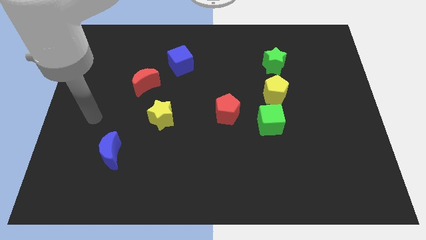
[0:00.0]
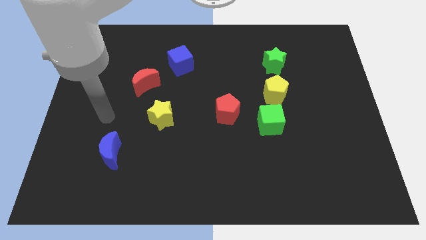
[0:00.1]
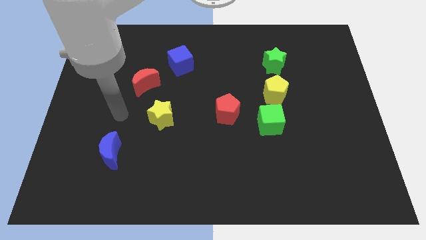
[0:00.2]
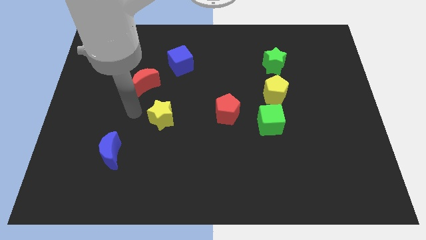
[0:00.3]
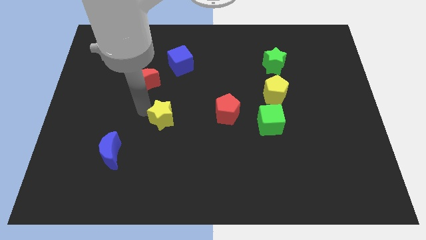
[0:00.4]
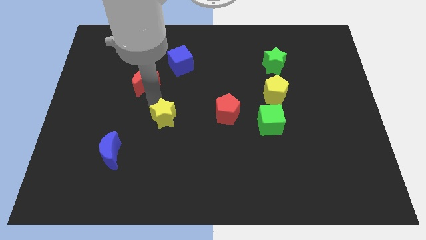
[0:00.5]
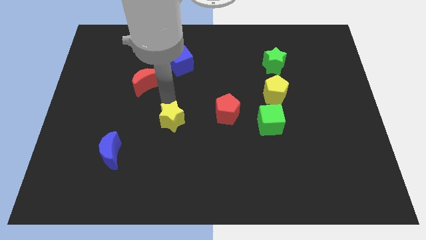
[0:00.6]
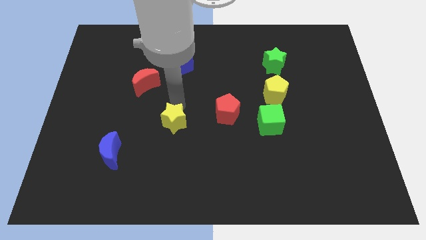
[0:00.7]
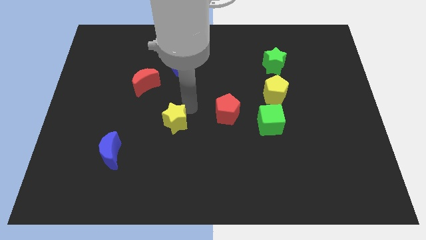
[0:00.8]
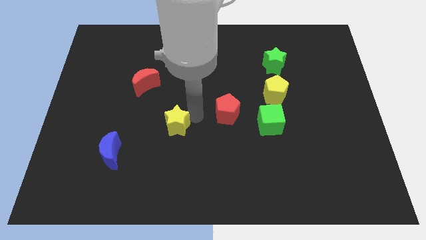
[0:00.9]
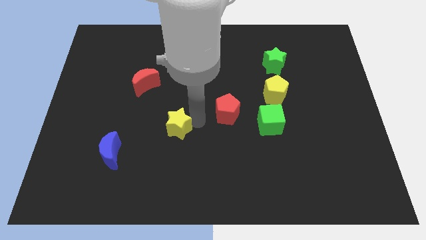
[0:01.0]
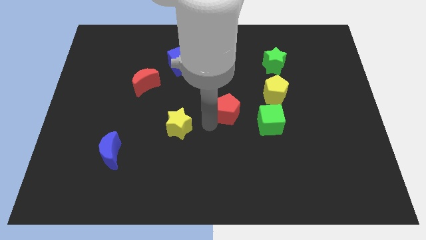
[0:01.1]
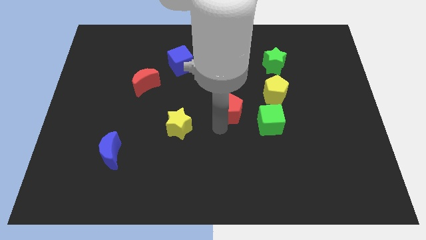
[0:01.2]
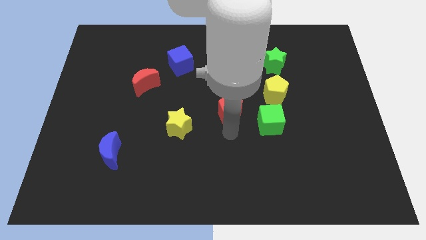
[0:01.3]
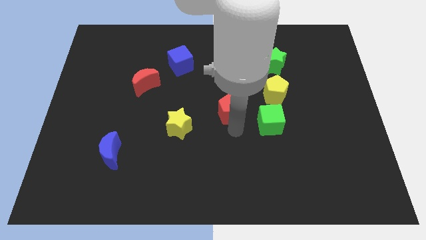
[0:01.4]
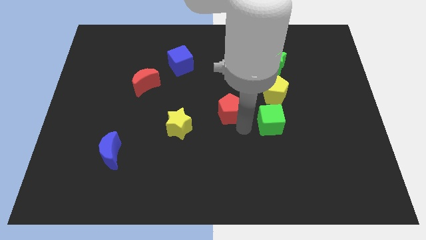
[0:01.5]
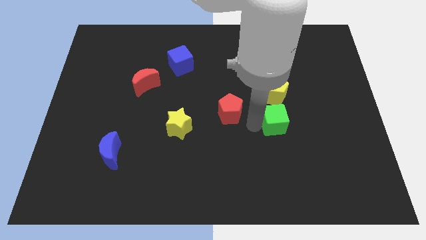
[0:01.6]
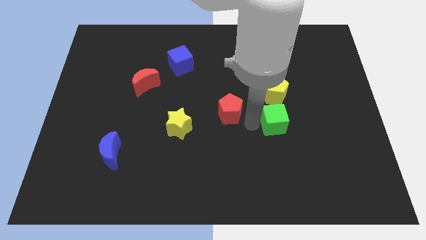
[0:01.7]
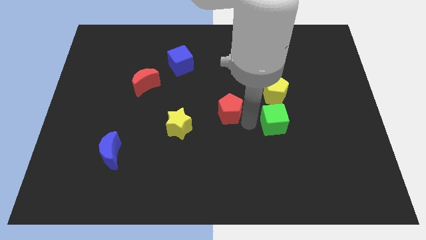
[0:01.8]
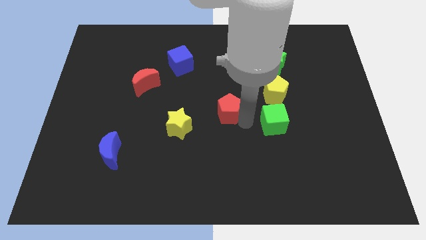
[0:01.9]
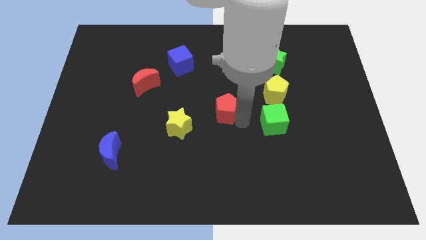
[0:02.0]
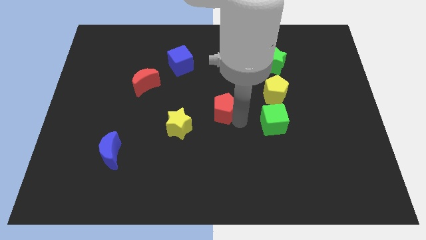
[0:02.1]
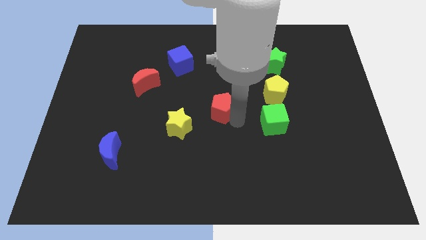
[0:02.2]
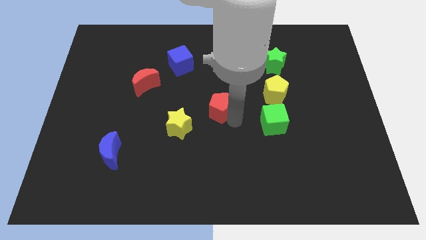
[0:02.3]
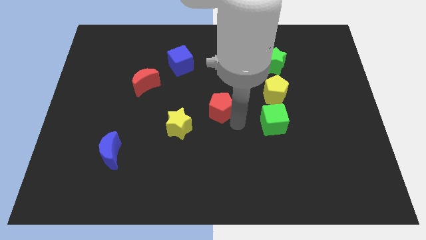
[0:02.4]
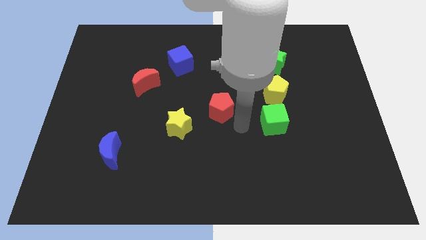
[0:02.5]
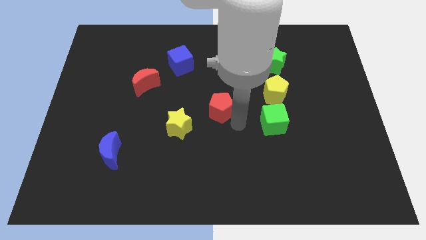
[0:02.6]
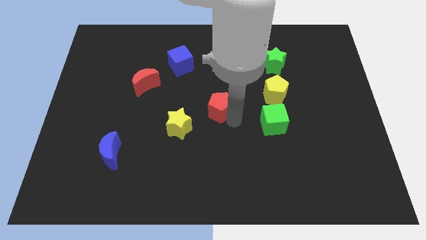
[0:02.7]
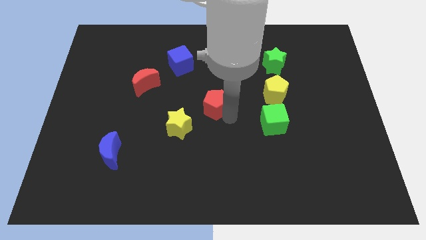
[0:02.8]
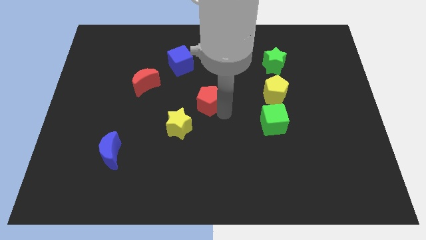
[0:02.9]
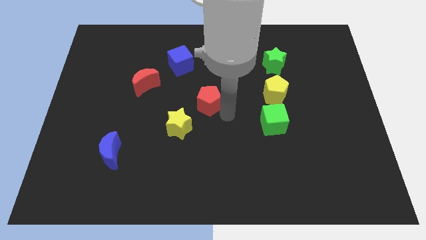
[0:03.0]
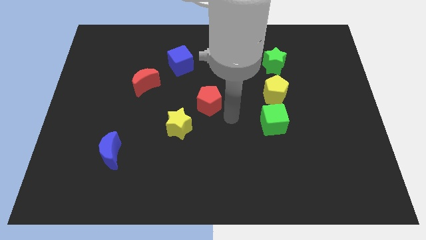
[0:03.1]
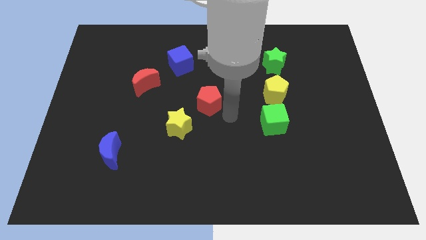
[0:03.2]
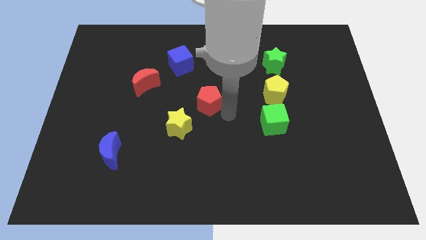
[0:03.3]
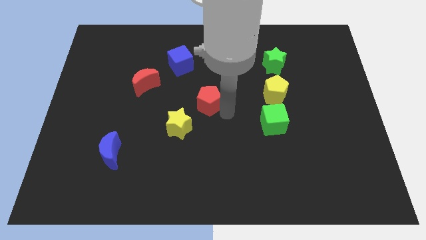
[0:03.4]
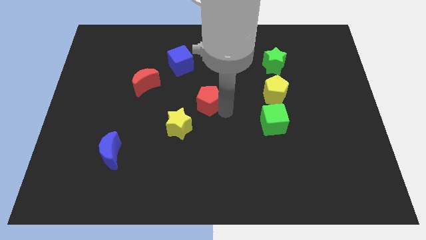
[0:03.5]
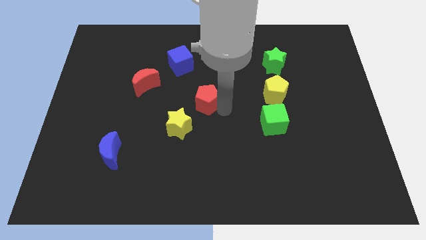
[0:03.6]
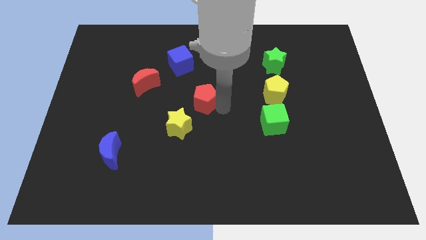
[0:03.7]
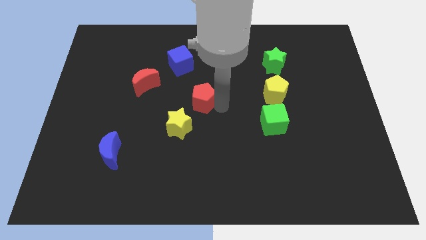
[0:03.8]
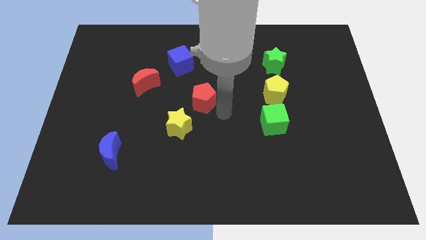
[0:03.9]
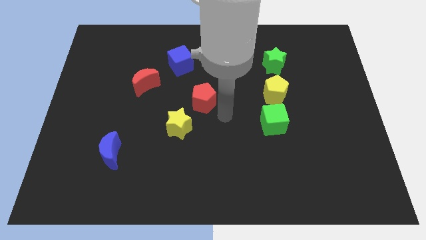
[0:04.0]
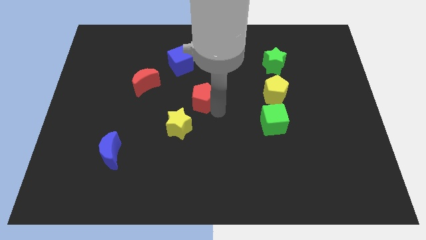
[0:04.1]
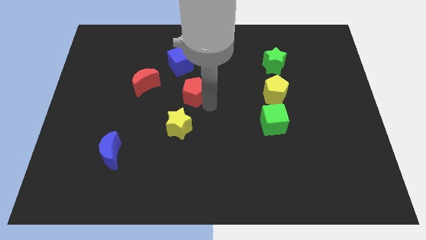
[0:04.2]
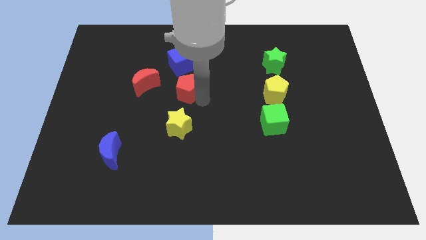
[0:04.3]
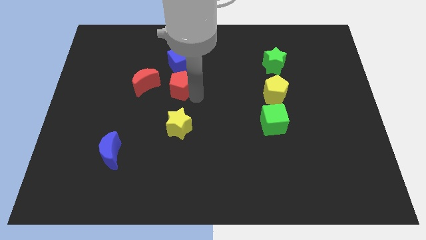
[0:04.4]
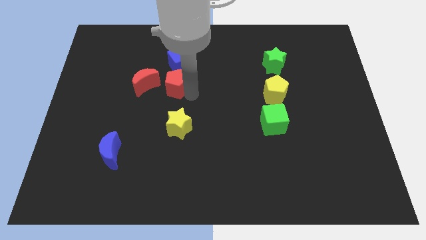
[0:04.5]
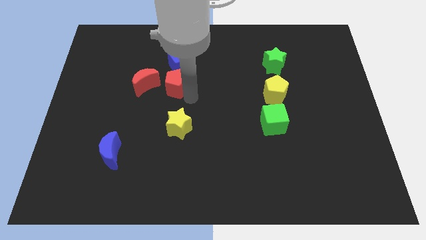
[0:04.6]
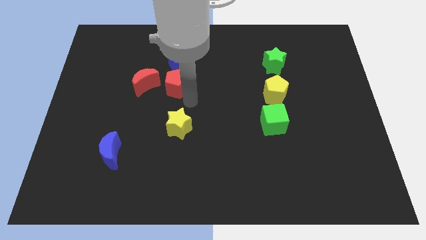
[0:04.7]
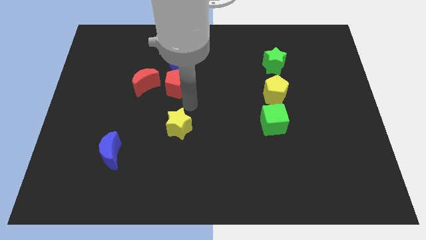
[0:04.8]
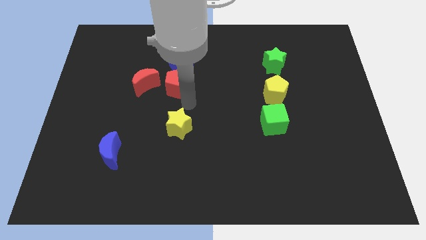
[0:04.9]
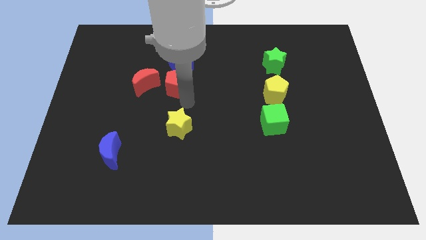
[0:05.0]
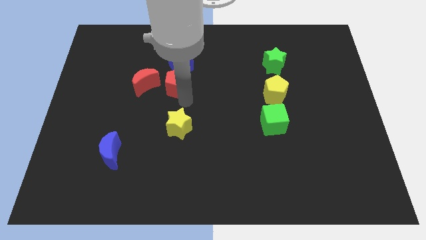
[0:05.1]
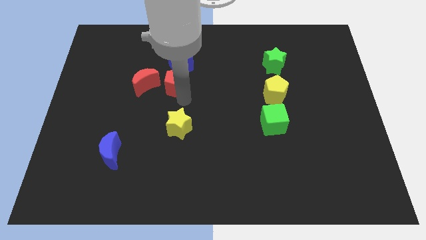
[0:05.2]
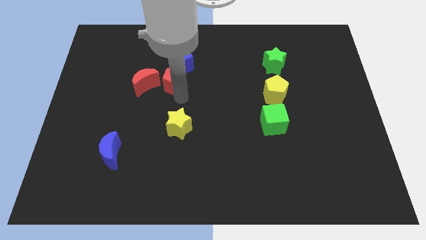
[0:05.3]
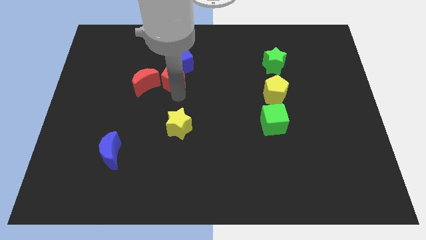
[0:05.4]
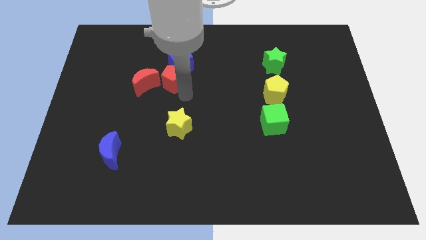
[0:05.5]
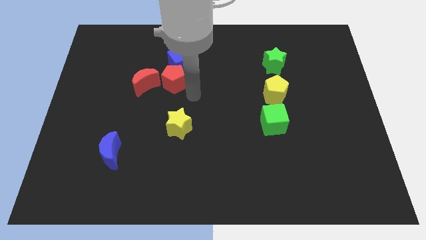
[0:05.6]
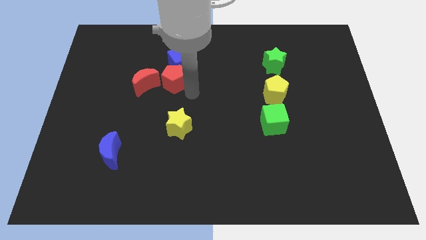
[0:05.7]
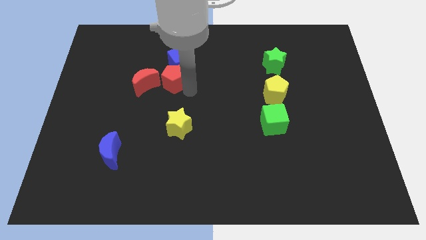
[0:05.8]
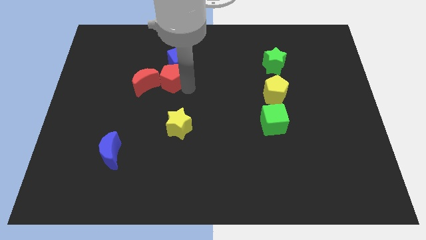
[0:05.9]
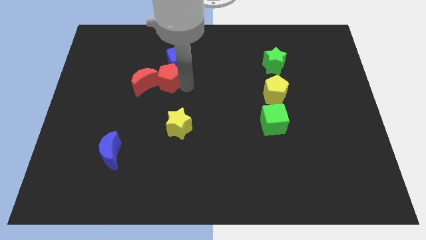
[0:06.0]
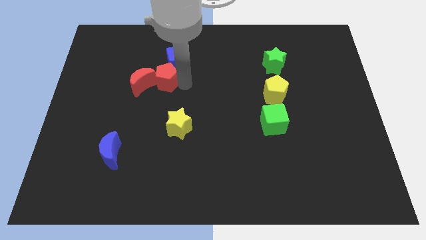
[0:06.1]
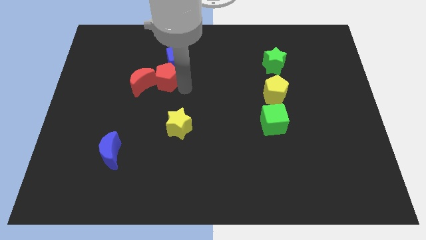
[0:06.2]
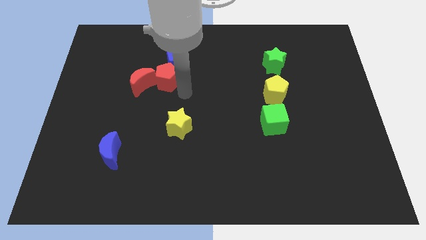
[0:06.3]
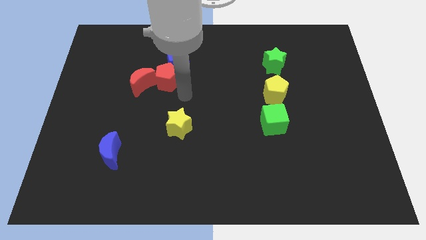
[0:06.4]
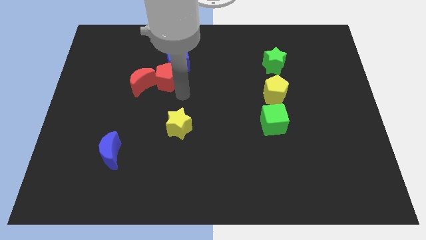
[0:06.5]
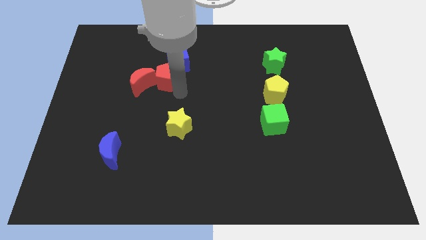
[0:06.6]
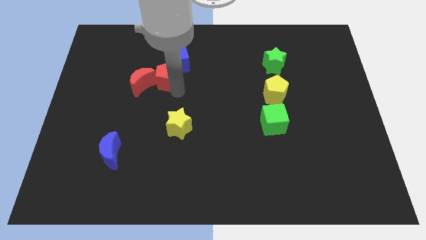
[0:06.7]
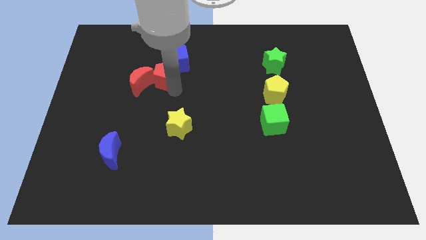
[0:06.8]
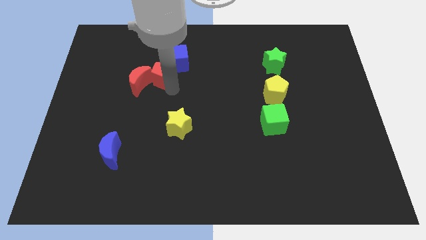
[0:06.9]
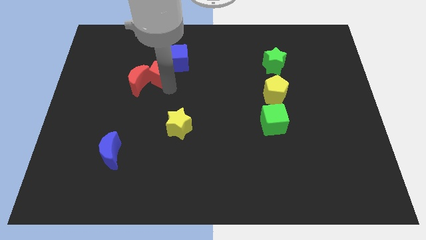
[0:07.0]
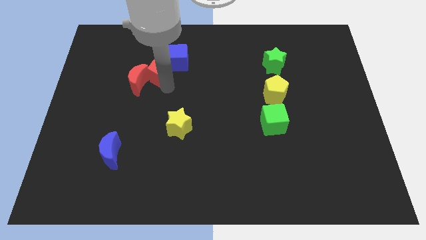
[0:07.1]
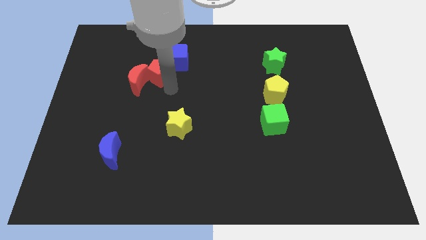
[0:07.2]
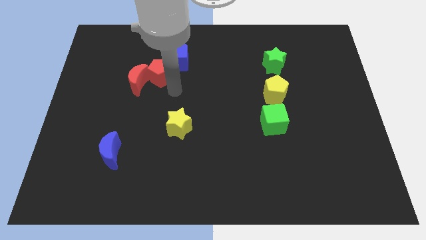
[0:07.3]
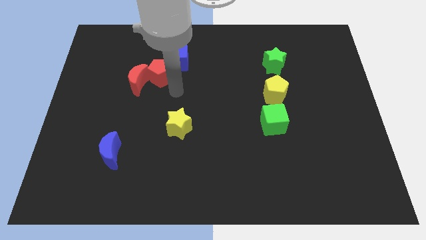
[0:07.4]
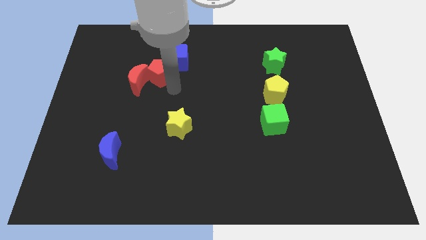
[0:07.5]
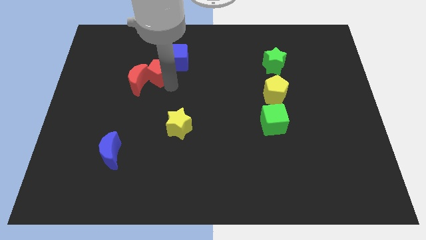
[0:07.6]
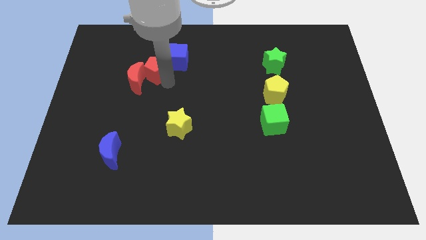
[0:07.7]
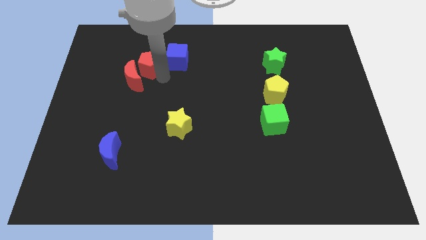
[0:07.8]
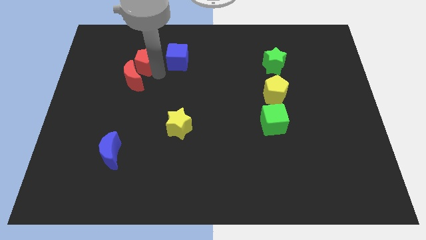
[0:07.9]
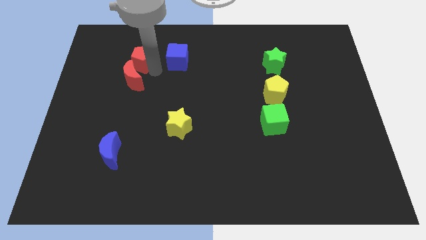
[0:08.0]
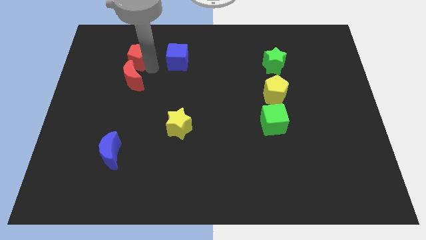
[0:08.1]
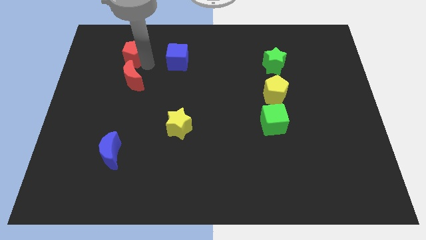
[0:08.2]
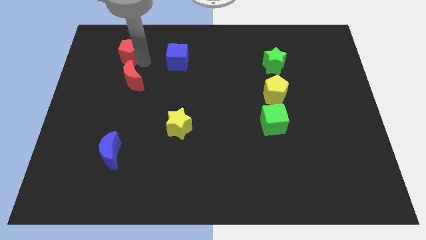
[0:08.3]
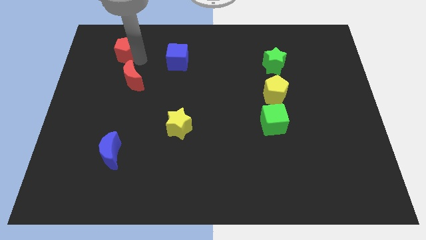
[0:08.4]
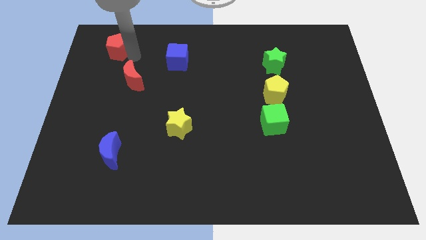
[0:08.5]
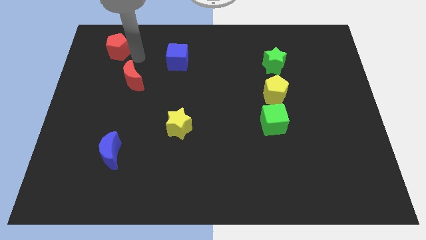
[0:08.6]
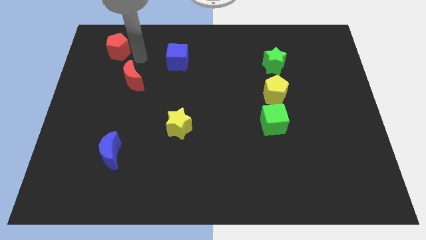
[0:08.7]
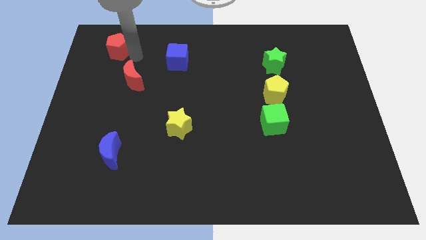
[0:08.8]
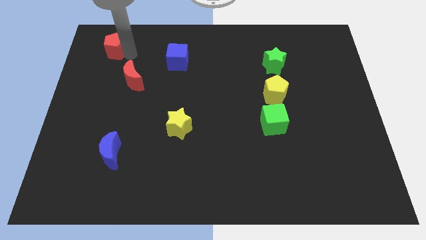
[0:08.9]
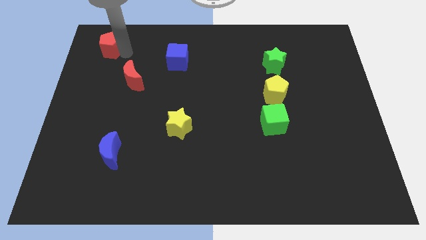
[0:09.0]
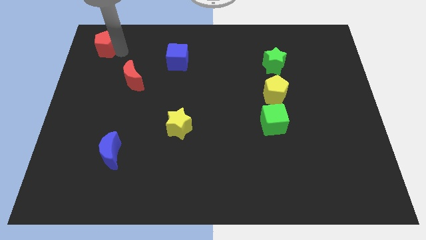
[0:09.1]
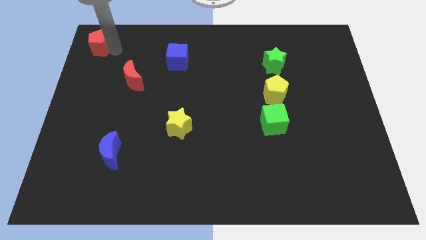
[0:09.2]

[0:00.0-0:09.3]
move the red pentagon to the top left corner
